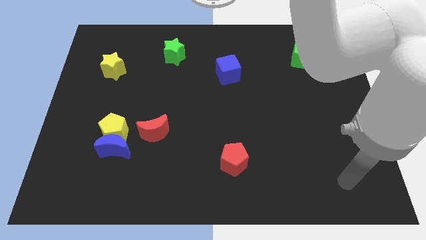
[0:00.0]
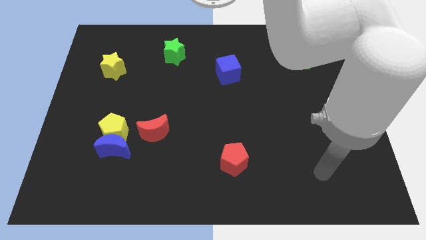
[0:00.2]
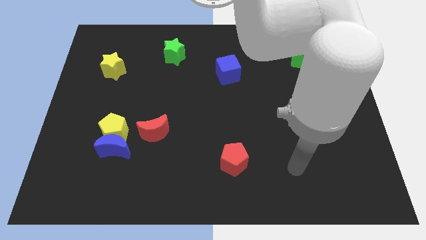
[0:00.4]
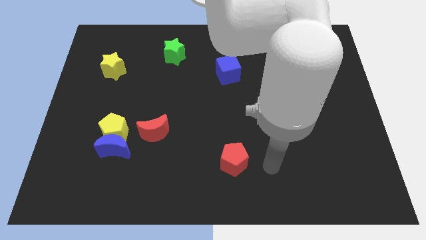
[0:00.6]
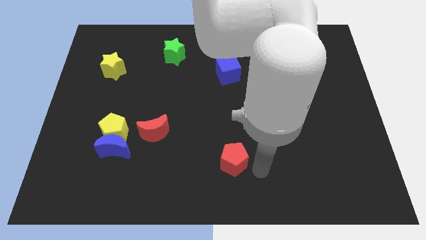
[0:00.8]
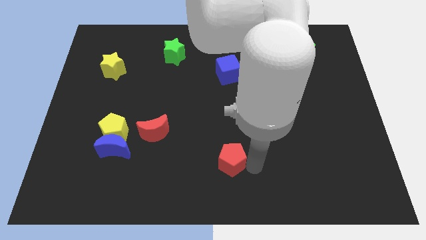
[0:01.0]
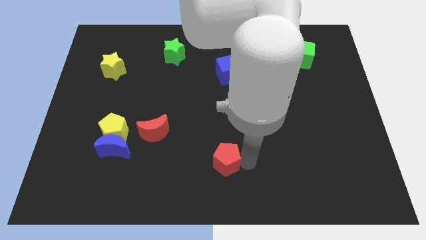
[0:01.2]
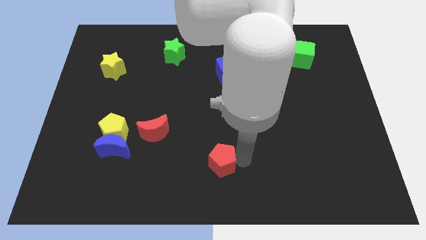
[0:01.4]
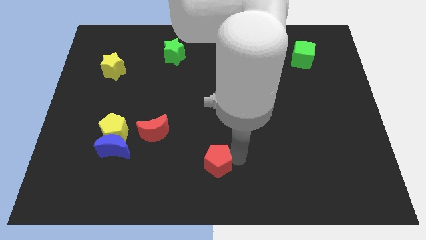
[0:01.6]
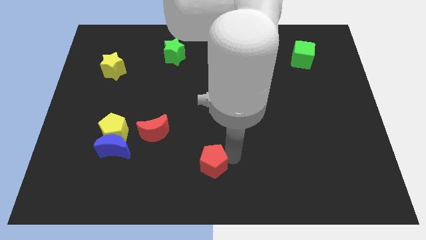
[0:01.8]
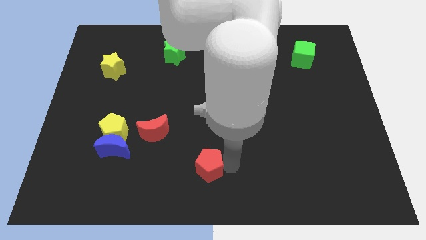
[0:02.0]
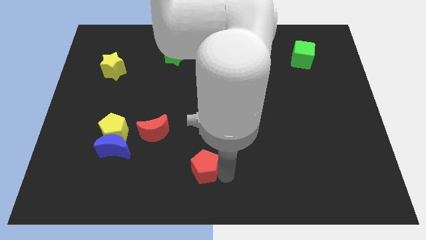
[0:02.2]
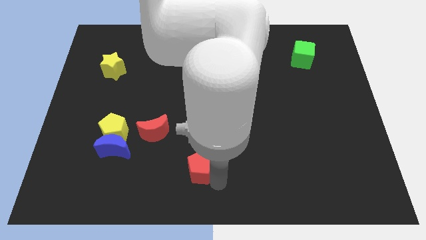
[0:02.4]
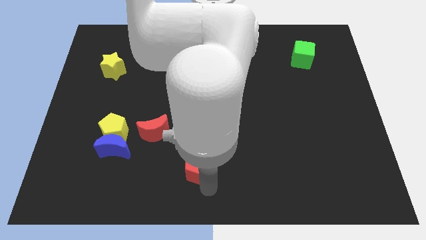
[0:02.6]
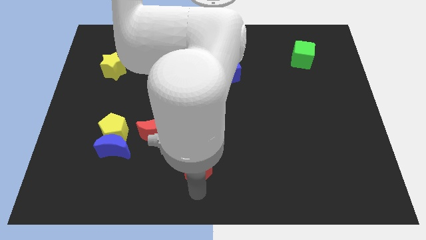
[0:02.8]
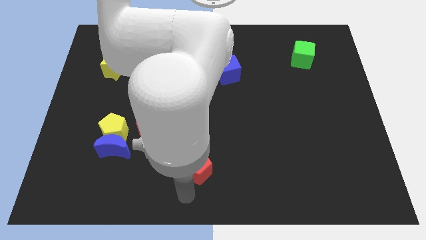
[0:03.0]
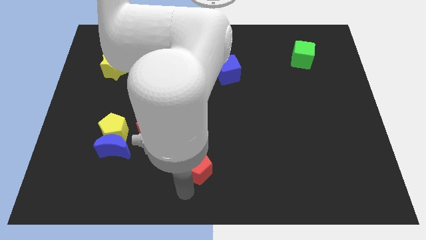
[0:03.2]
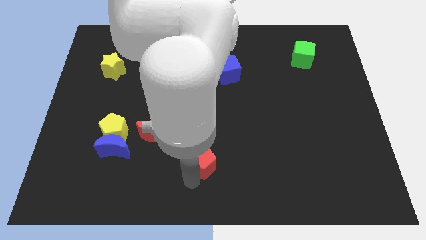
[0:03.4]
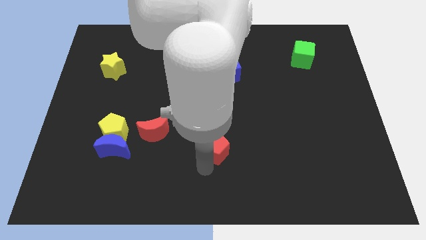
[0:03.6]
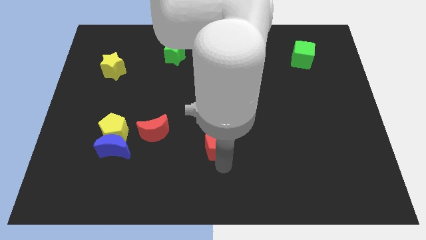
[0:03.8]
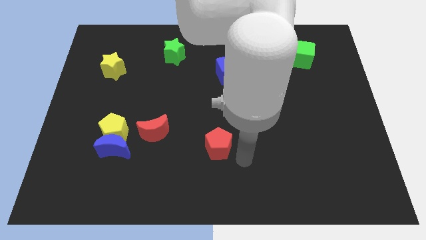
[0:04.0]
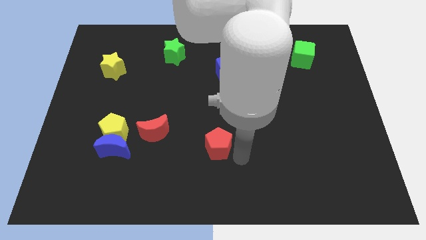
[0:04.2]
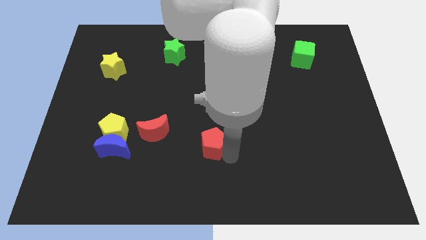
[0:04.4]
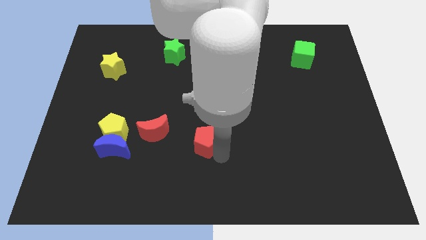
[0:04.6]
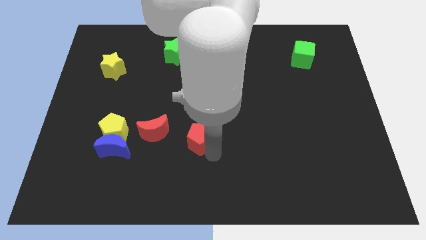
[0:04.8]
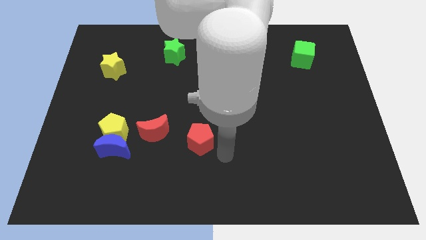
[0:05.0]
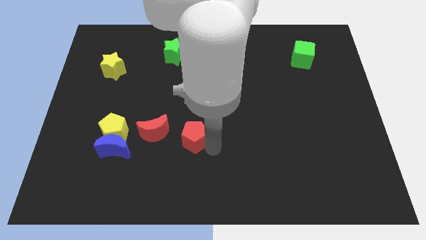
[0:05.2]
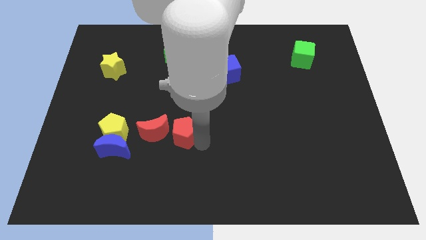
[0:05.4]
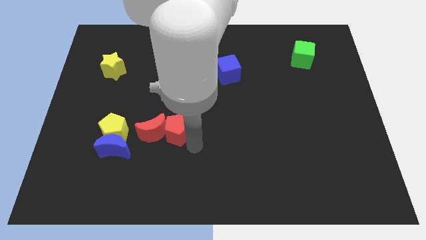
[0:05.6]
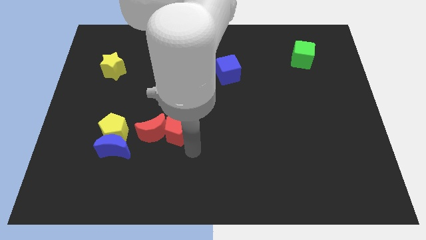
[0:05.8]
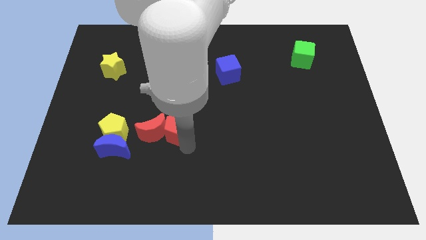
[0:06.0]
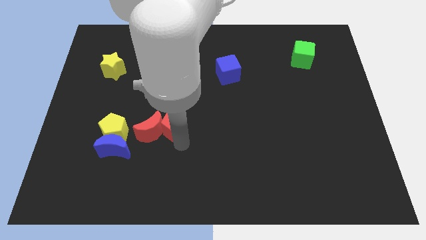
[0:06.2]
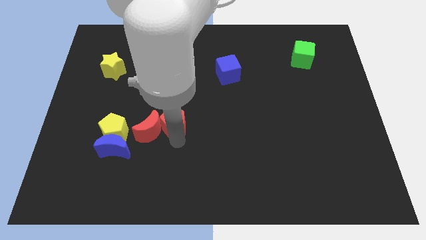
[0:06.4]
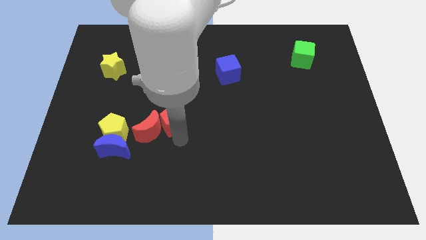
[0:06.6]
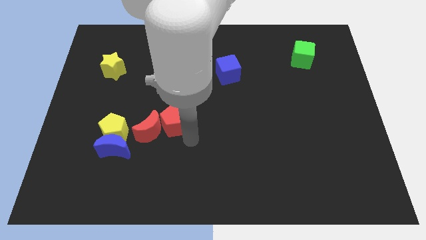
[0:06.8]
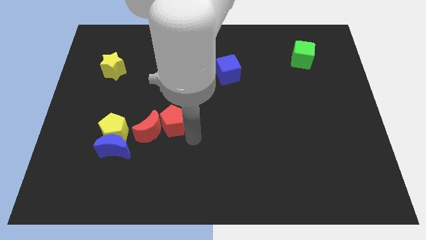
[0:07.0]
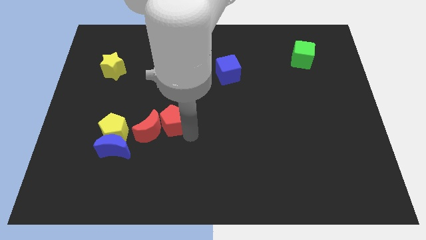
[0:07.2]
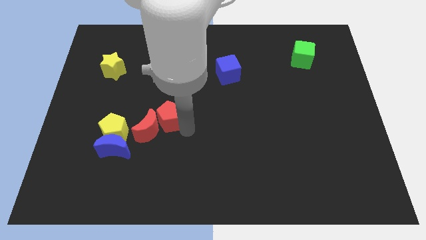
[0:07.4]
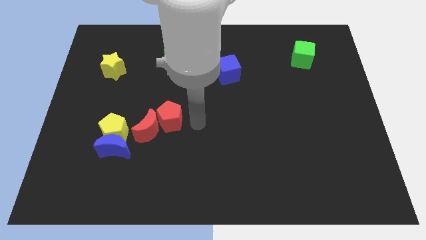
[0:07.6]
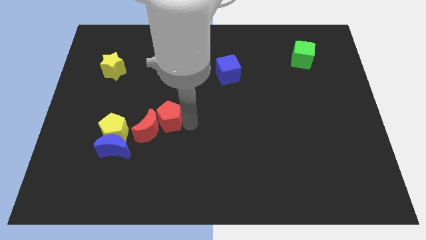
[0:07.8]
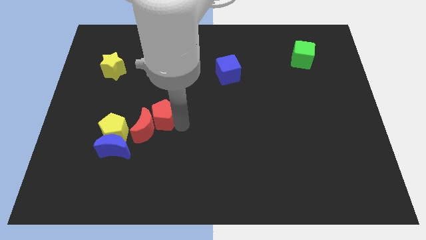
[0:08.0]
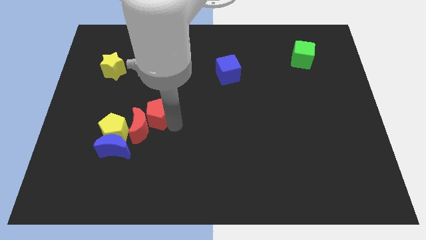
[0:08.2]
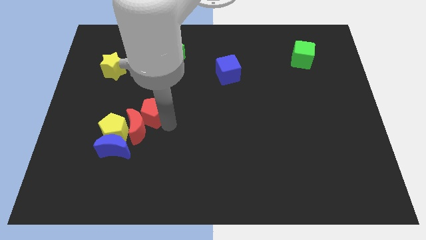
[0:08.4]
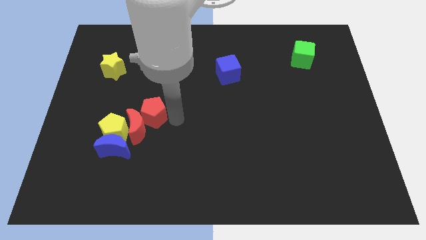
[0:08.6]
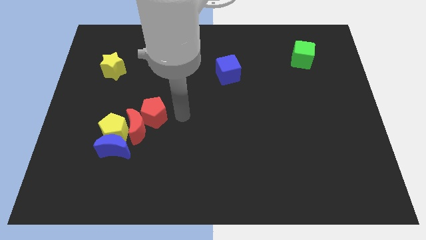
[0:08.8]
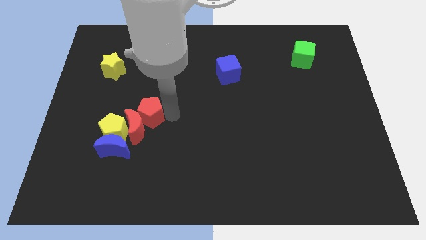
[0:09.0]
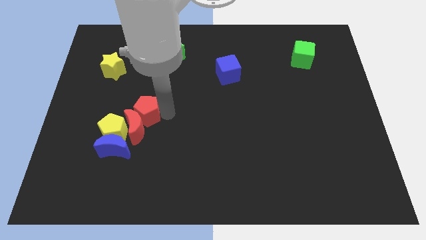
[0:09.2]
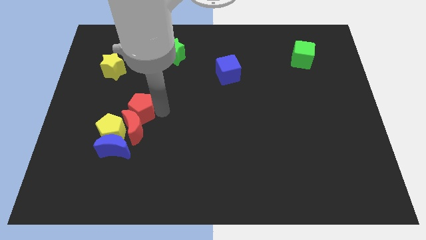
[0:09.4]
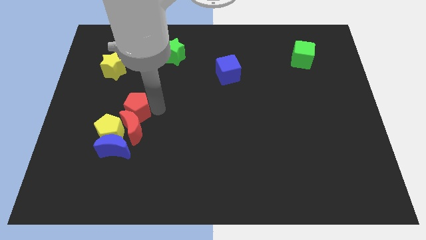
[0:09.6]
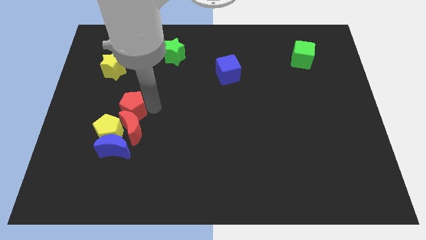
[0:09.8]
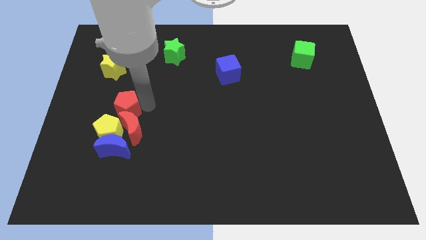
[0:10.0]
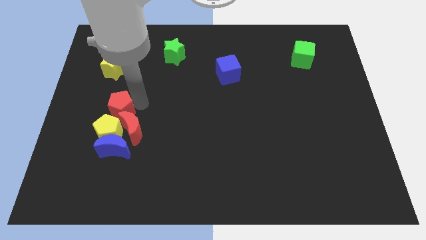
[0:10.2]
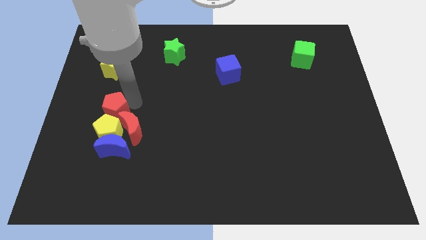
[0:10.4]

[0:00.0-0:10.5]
push the red pentagon diagonally up and to the left of the yellow pentagon

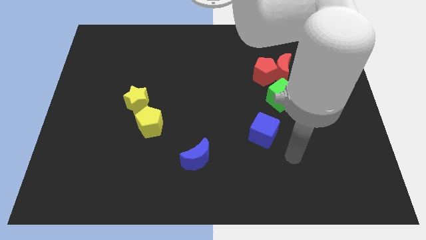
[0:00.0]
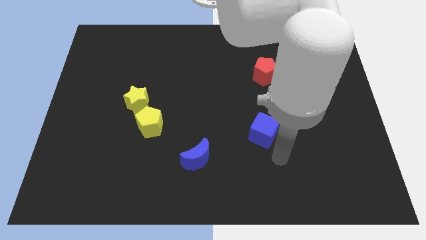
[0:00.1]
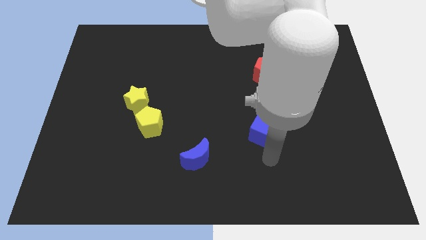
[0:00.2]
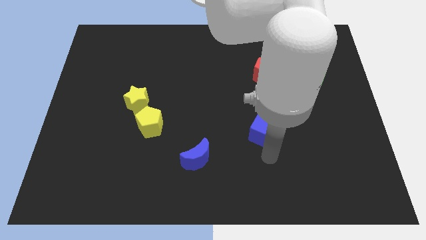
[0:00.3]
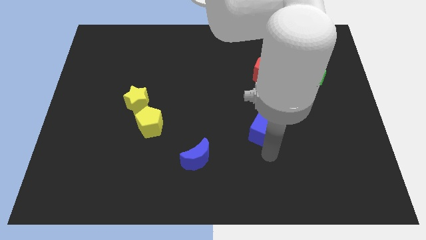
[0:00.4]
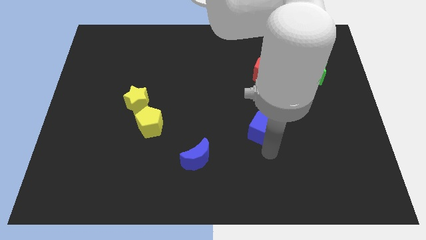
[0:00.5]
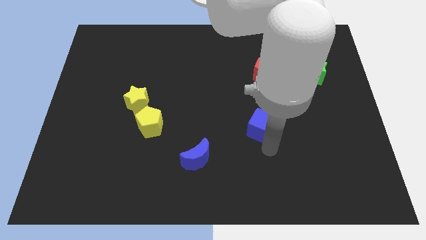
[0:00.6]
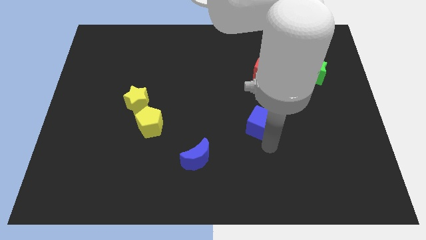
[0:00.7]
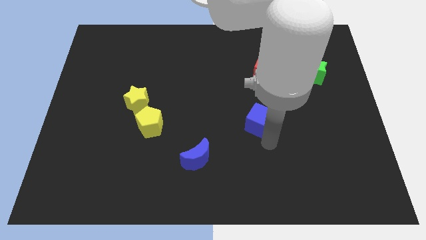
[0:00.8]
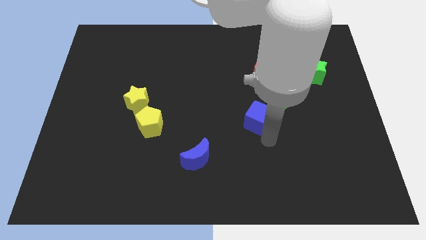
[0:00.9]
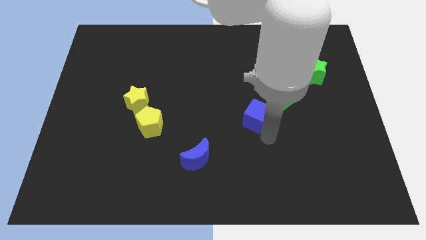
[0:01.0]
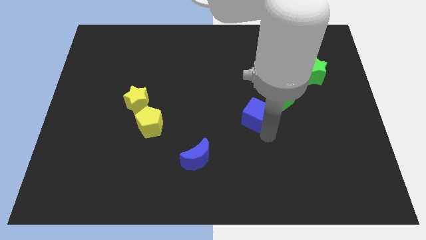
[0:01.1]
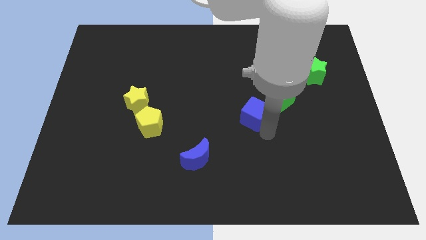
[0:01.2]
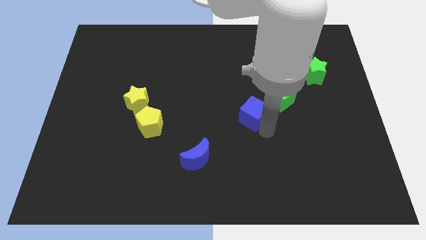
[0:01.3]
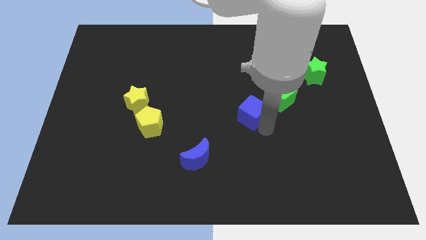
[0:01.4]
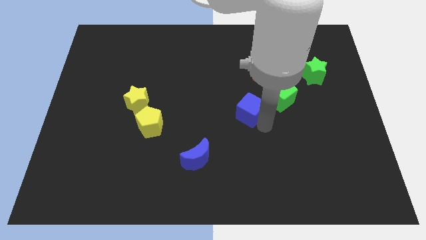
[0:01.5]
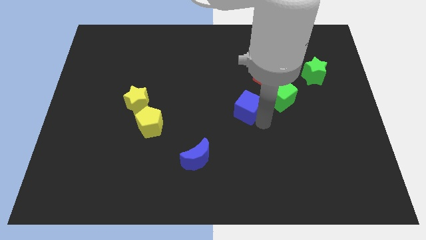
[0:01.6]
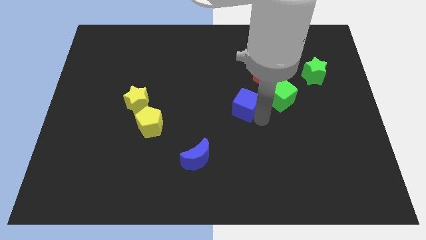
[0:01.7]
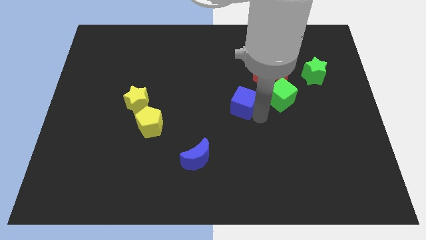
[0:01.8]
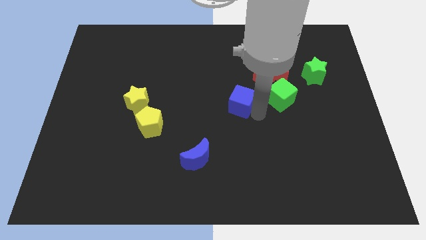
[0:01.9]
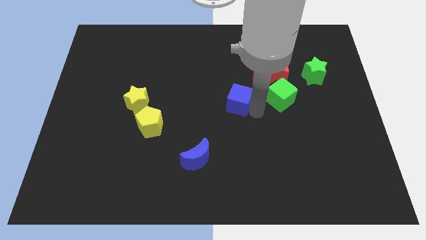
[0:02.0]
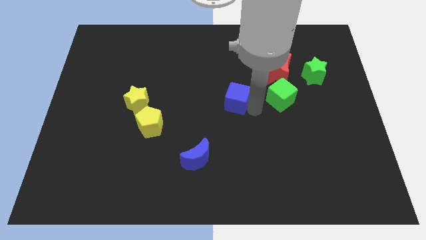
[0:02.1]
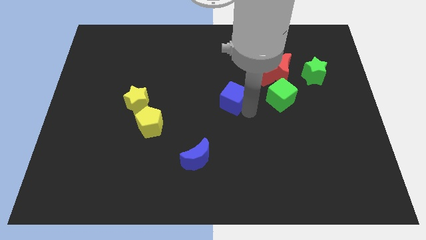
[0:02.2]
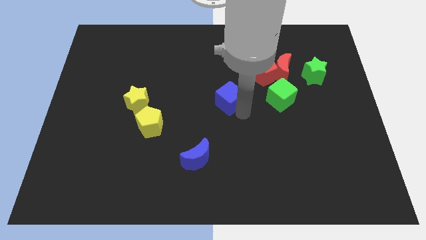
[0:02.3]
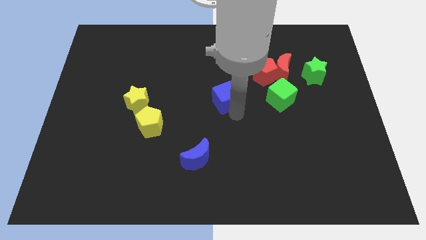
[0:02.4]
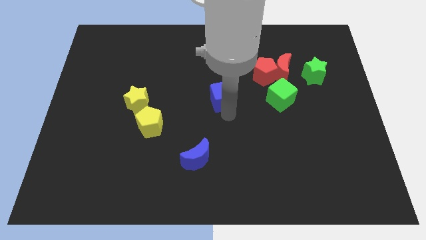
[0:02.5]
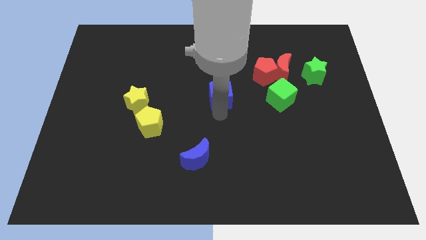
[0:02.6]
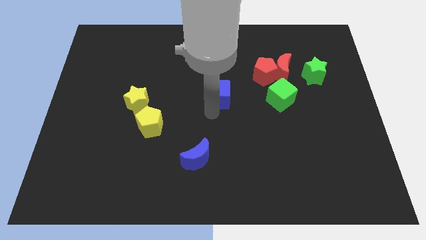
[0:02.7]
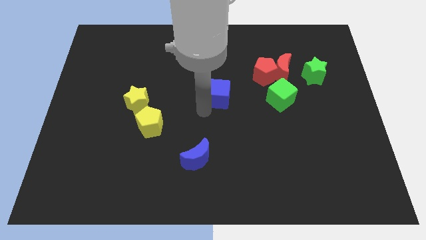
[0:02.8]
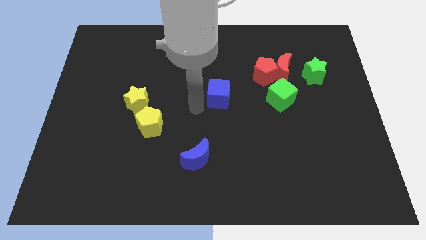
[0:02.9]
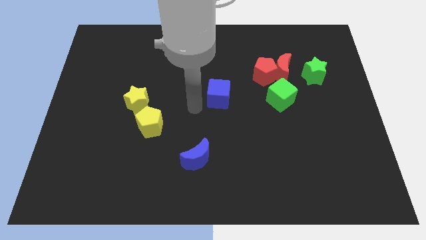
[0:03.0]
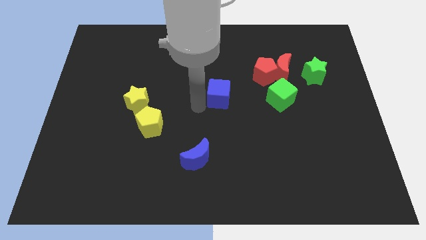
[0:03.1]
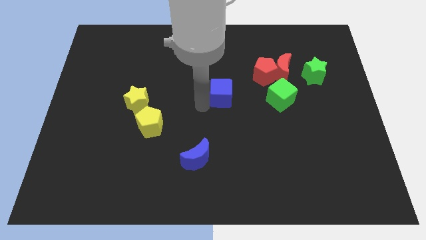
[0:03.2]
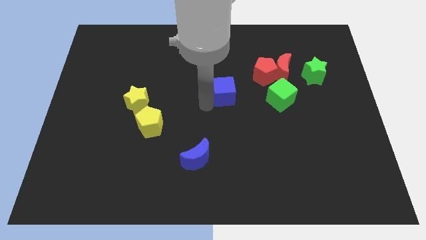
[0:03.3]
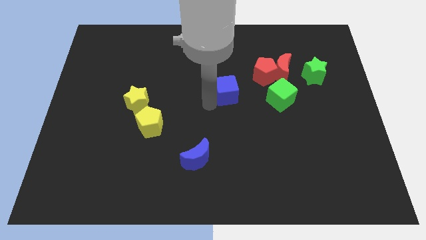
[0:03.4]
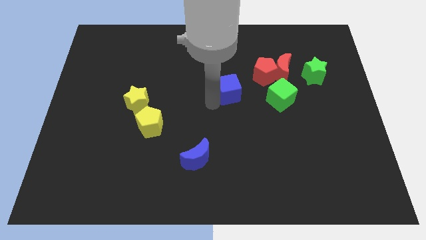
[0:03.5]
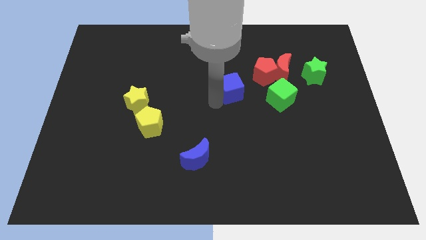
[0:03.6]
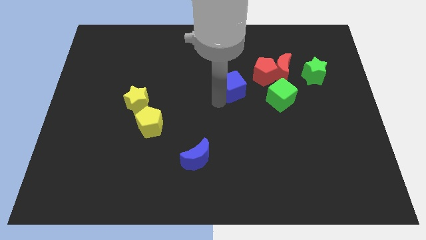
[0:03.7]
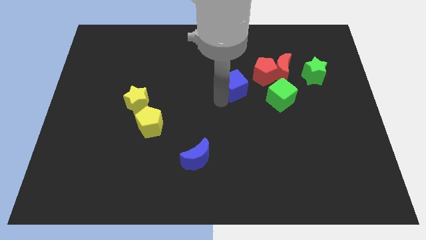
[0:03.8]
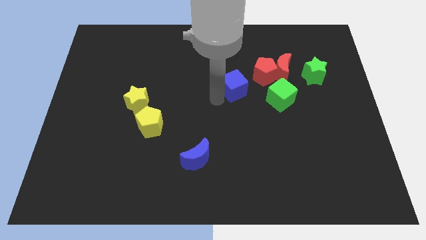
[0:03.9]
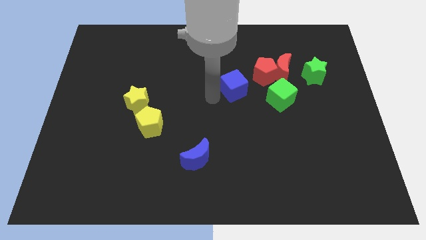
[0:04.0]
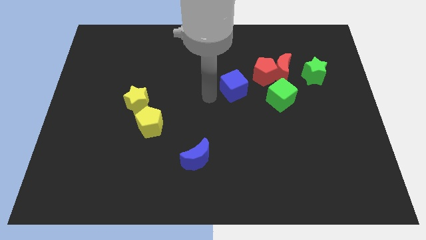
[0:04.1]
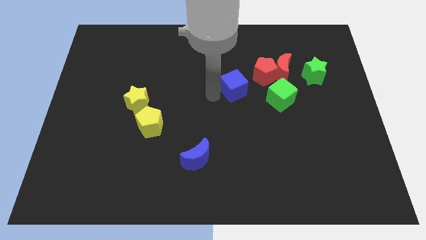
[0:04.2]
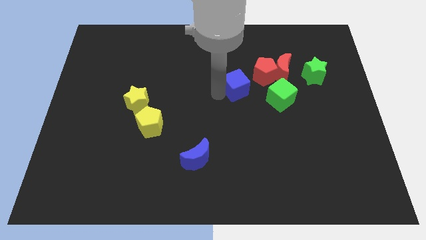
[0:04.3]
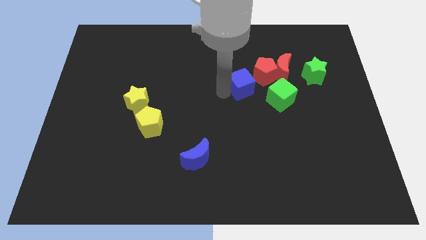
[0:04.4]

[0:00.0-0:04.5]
slide the blue cube diagonally up and to the left of the green cube
